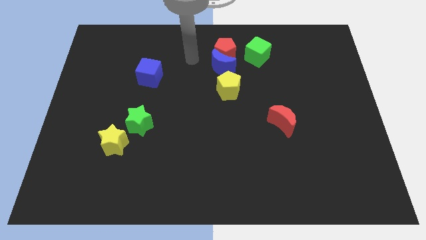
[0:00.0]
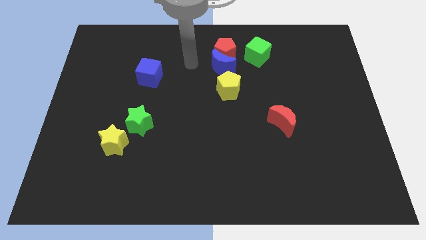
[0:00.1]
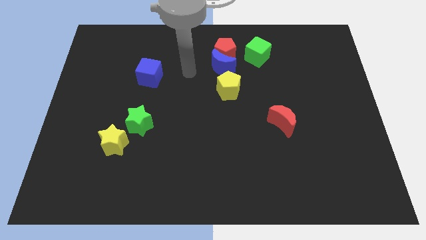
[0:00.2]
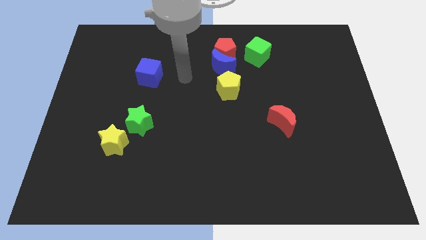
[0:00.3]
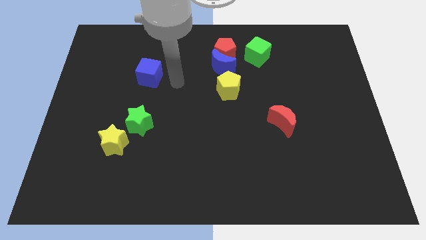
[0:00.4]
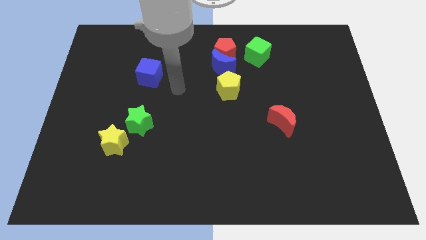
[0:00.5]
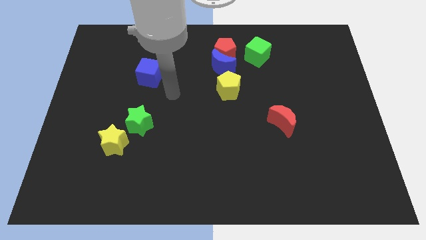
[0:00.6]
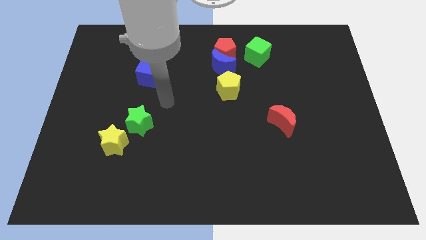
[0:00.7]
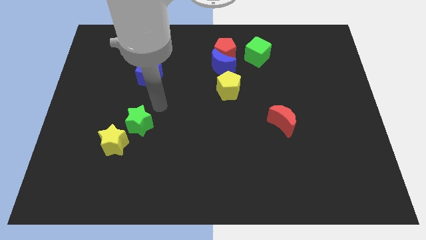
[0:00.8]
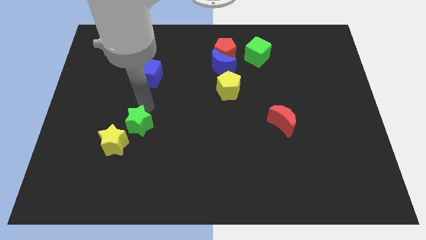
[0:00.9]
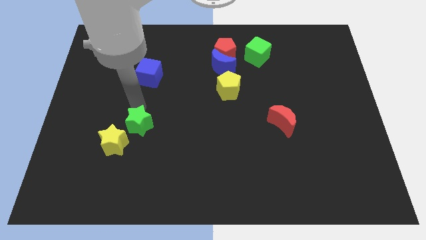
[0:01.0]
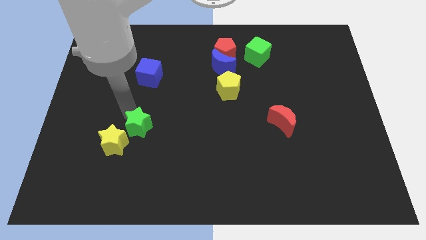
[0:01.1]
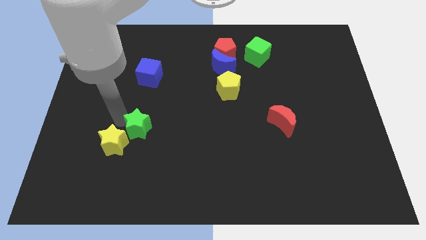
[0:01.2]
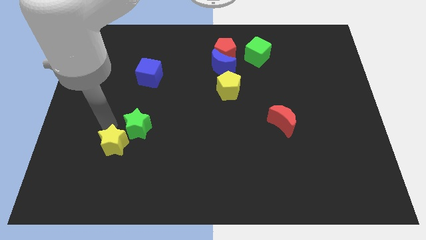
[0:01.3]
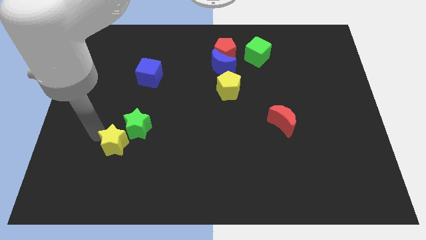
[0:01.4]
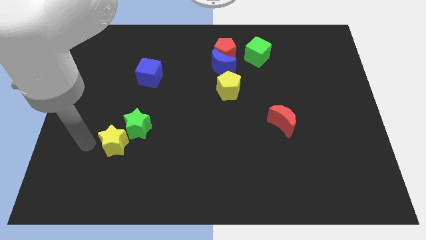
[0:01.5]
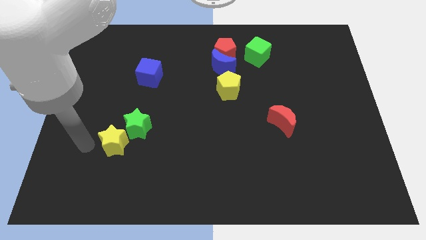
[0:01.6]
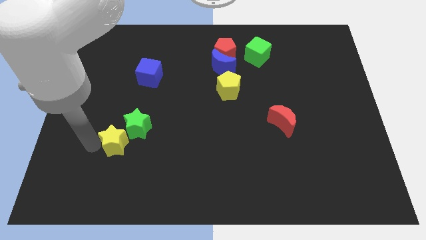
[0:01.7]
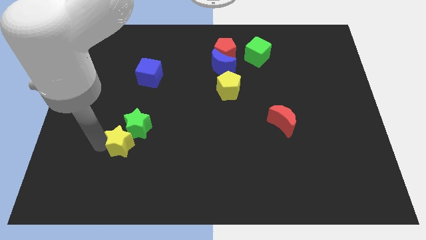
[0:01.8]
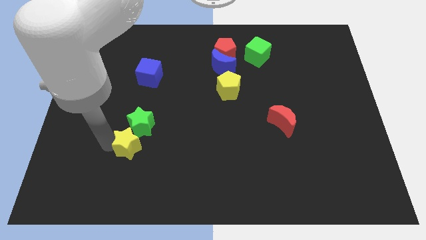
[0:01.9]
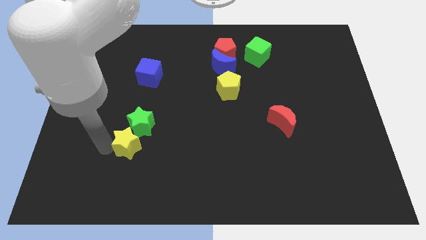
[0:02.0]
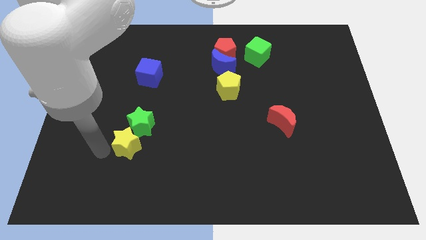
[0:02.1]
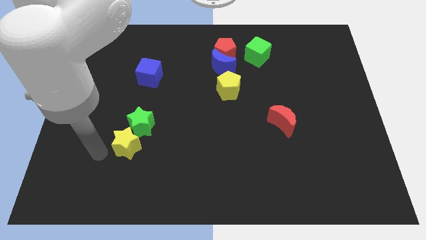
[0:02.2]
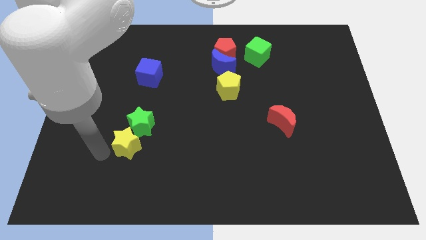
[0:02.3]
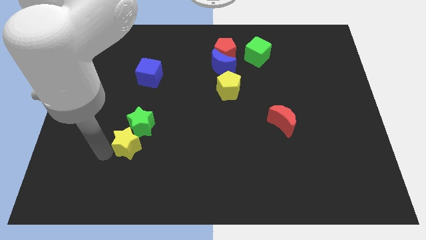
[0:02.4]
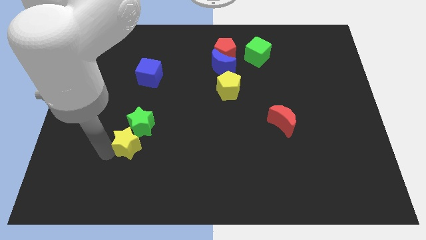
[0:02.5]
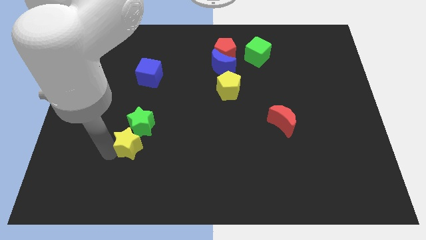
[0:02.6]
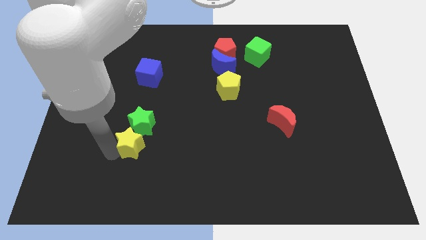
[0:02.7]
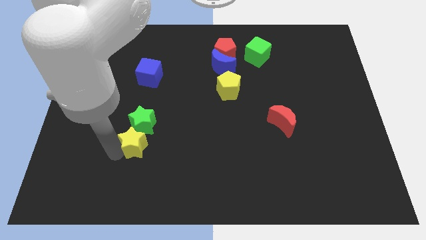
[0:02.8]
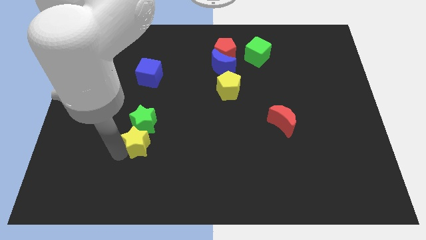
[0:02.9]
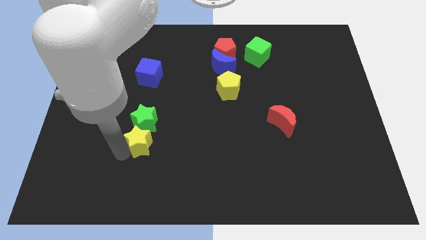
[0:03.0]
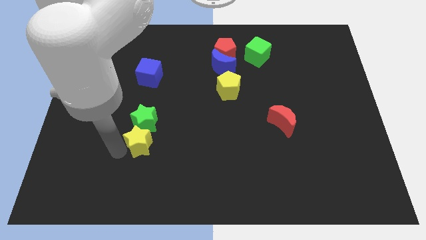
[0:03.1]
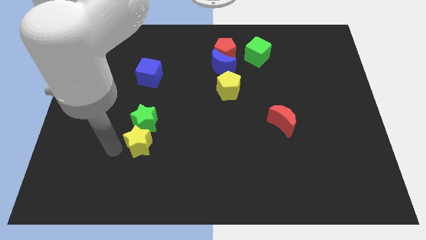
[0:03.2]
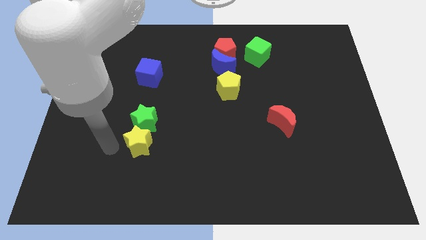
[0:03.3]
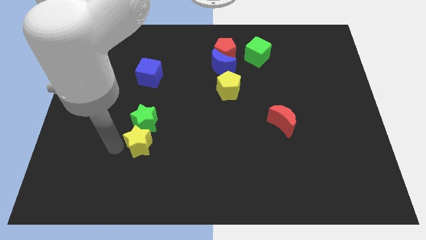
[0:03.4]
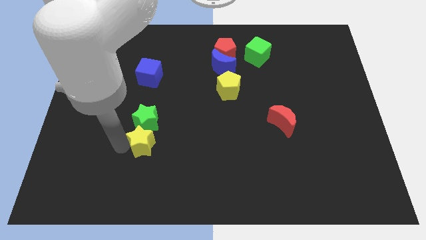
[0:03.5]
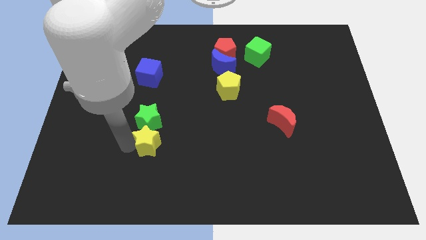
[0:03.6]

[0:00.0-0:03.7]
move the yellow star to the right a little

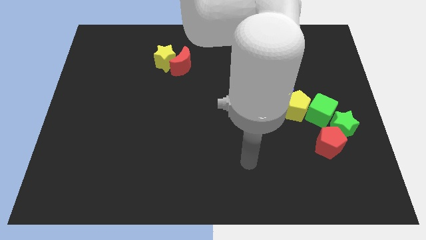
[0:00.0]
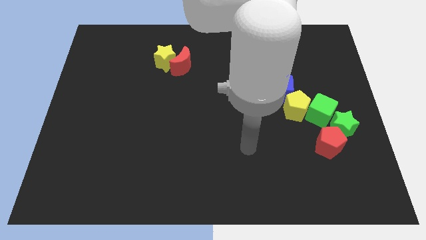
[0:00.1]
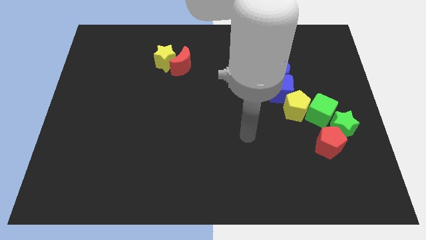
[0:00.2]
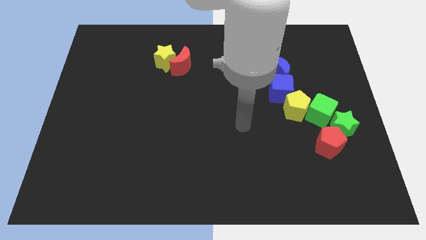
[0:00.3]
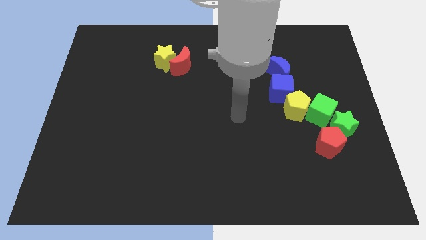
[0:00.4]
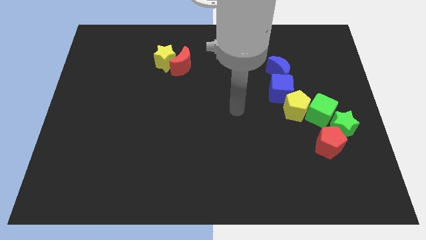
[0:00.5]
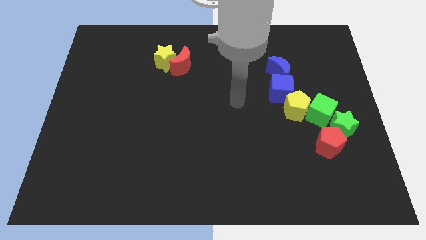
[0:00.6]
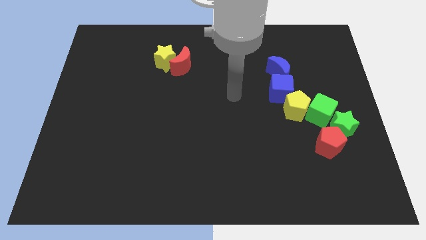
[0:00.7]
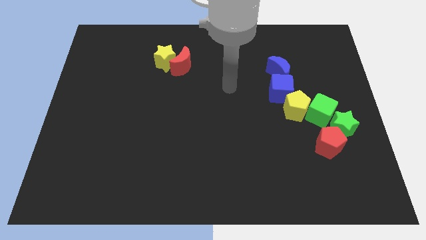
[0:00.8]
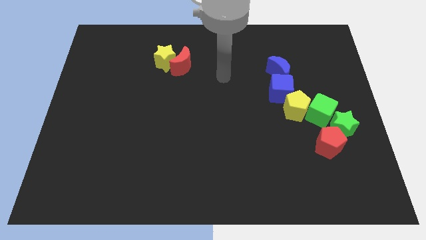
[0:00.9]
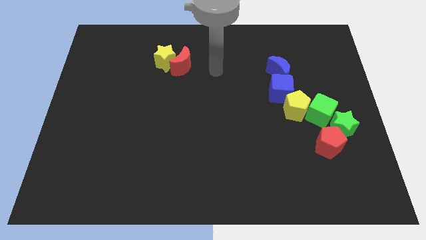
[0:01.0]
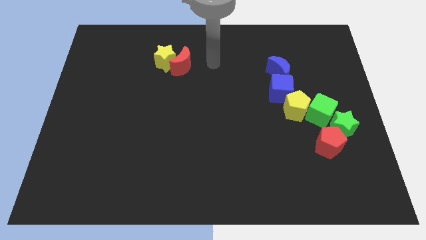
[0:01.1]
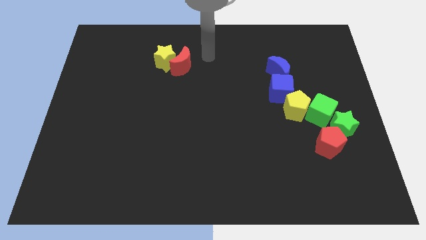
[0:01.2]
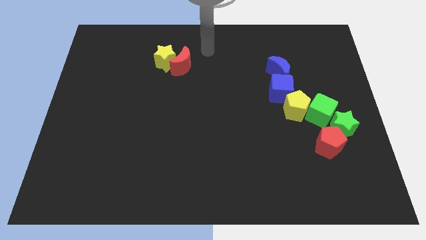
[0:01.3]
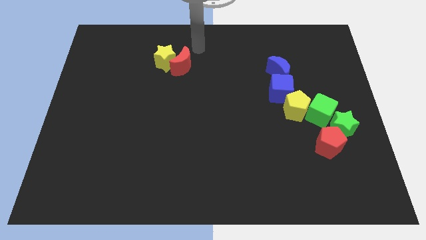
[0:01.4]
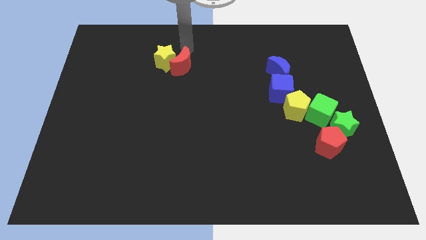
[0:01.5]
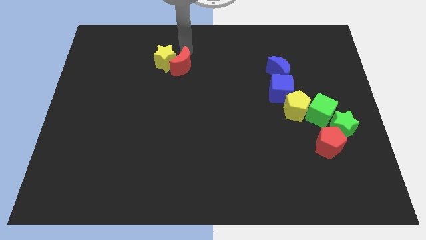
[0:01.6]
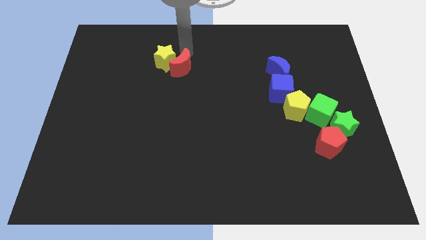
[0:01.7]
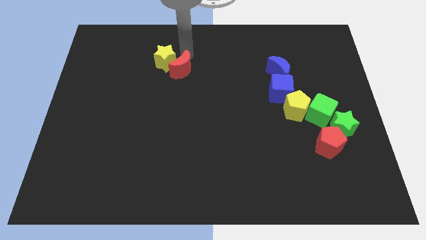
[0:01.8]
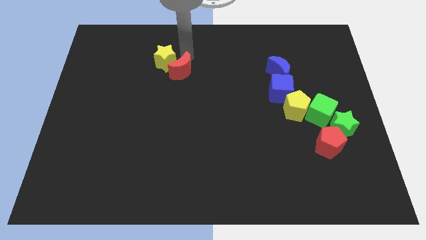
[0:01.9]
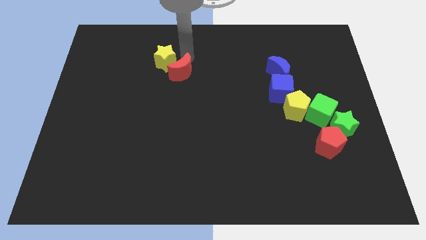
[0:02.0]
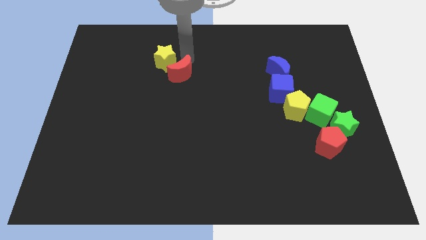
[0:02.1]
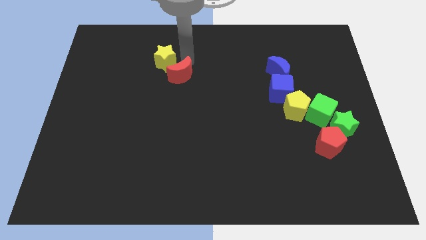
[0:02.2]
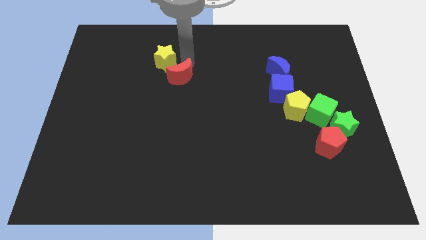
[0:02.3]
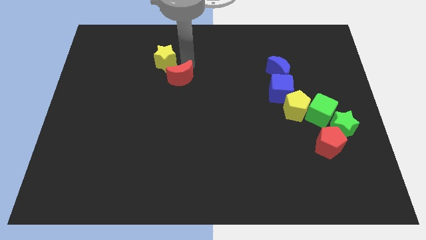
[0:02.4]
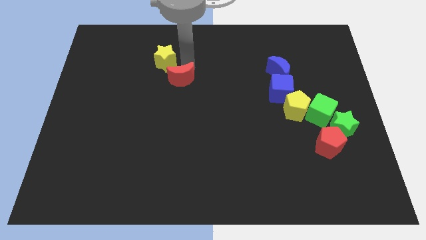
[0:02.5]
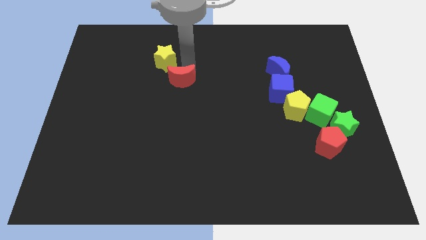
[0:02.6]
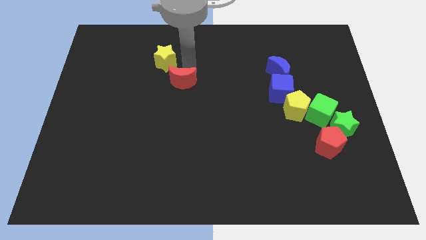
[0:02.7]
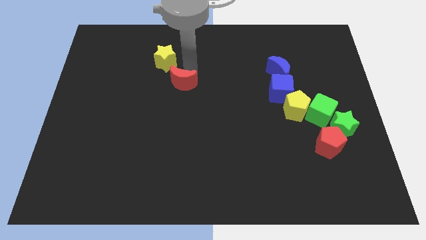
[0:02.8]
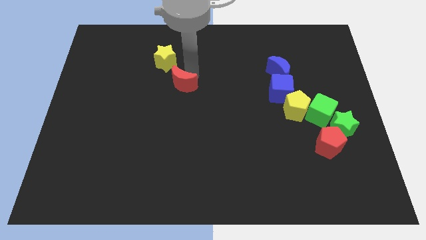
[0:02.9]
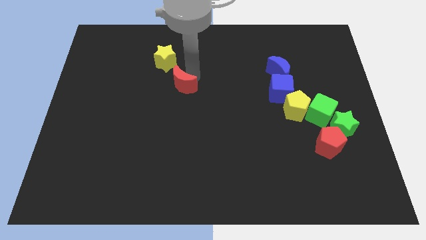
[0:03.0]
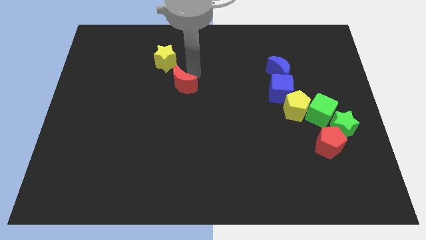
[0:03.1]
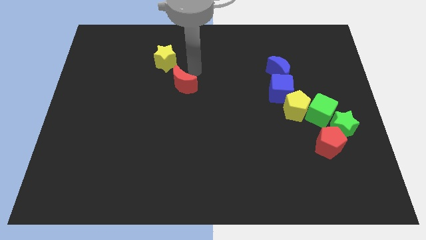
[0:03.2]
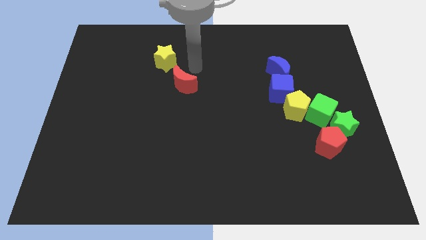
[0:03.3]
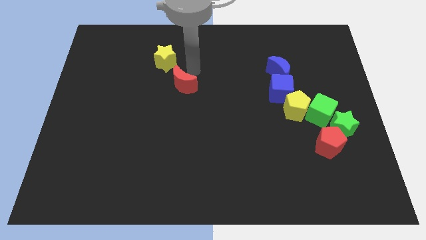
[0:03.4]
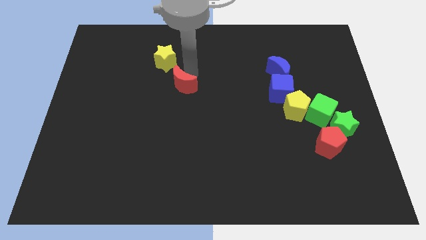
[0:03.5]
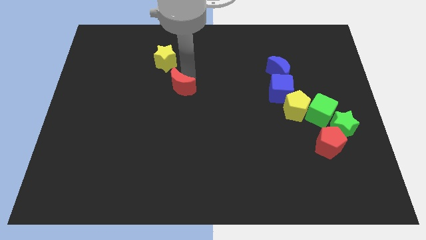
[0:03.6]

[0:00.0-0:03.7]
slightly slide the red moon down

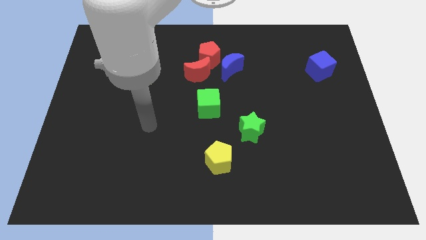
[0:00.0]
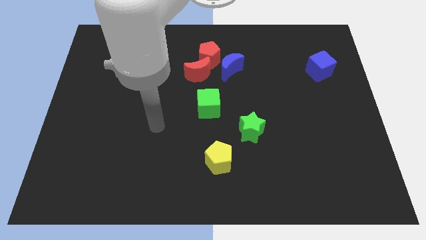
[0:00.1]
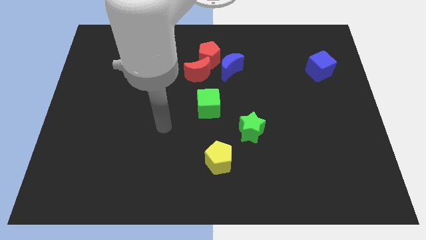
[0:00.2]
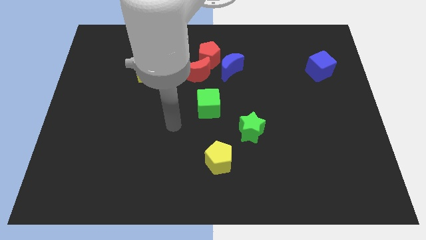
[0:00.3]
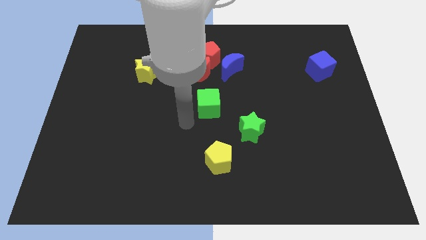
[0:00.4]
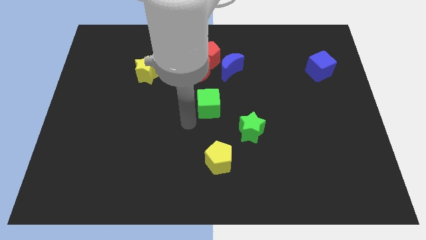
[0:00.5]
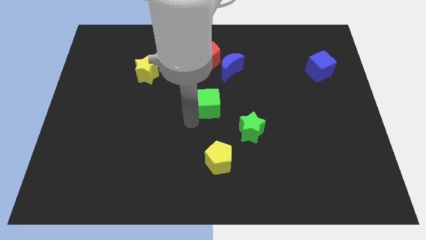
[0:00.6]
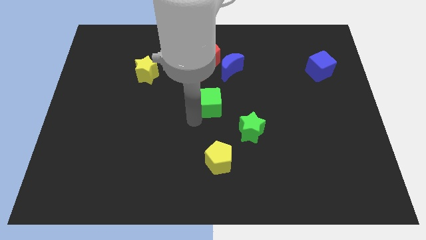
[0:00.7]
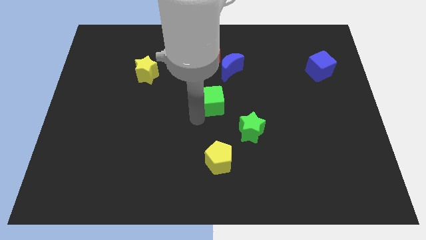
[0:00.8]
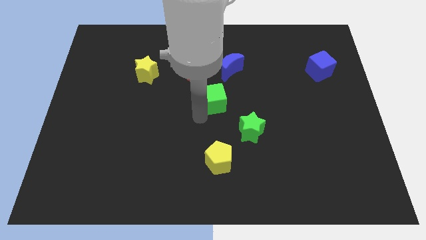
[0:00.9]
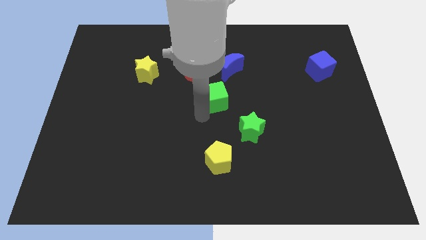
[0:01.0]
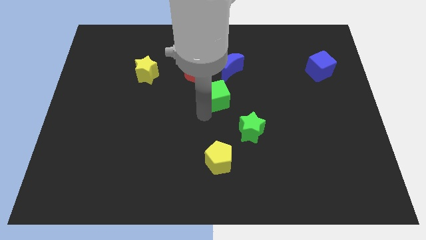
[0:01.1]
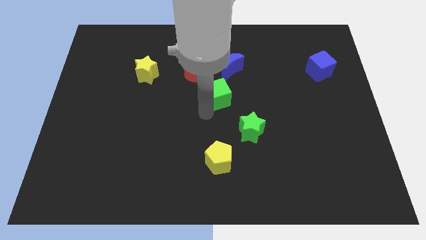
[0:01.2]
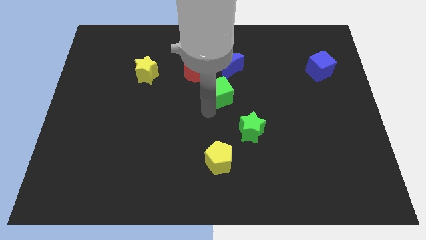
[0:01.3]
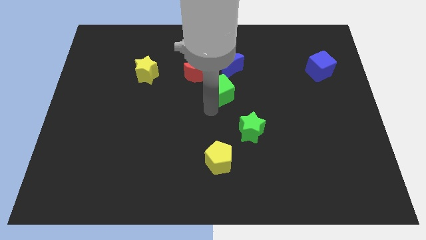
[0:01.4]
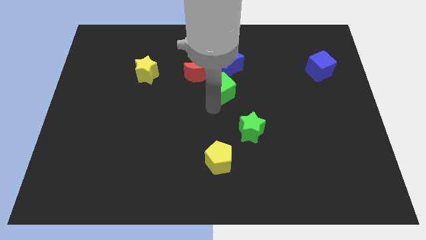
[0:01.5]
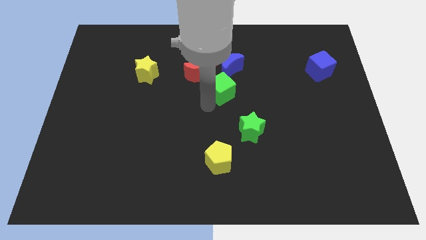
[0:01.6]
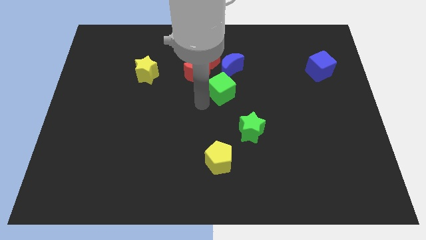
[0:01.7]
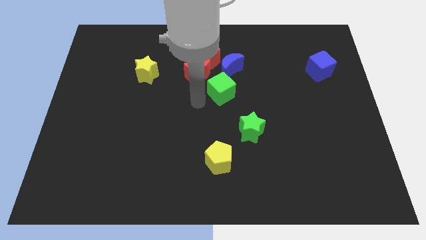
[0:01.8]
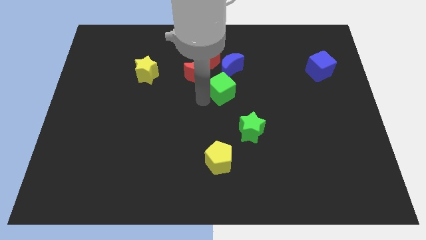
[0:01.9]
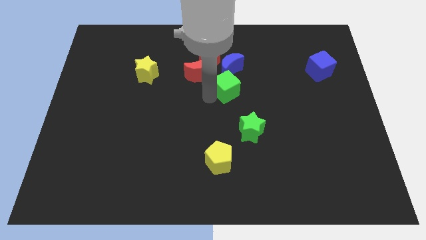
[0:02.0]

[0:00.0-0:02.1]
slightly push the green cube up and then right
